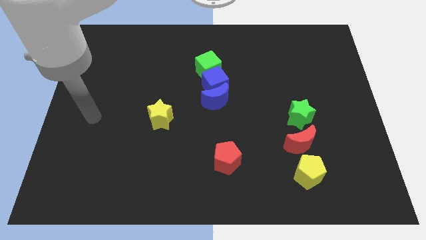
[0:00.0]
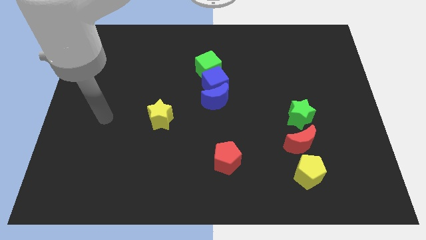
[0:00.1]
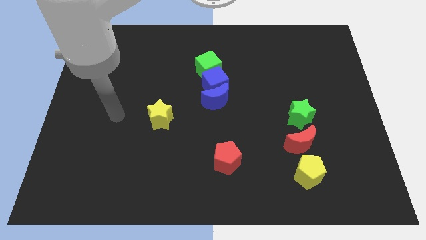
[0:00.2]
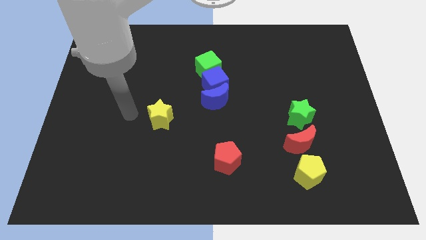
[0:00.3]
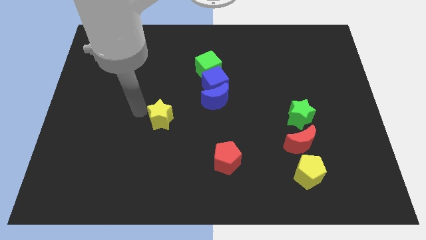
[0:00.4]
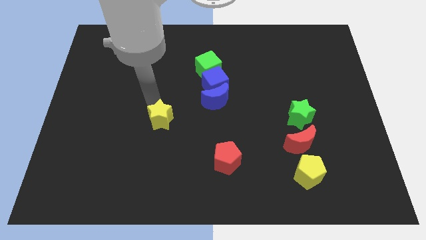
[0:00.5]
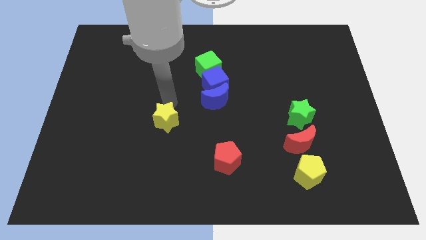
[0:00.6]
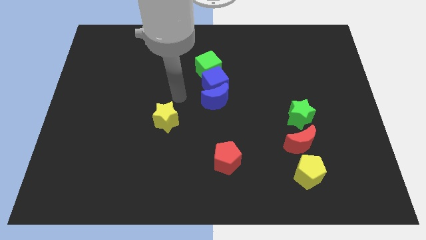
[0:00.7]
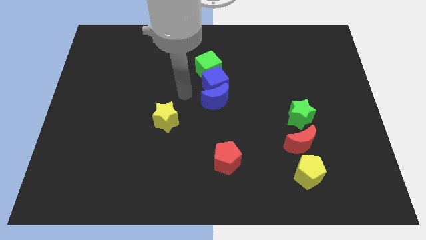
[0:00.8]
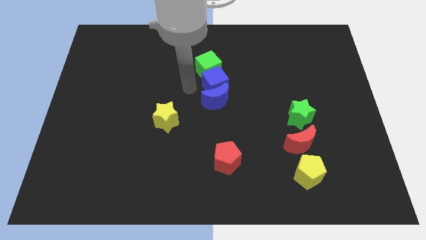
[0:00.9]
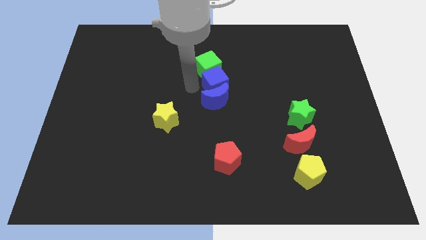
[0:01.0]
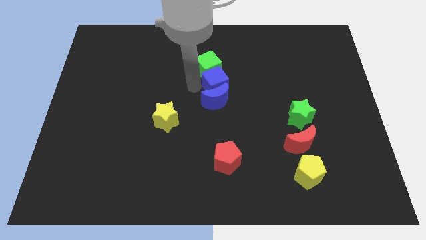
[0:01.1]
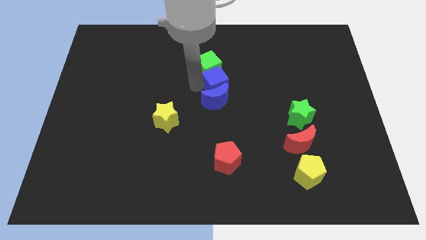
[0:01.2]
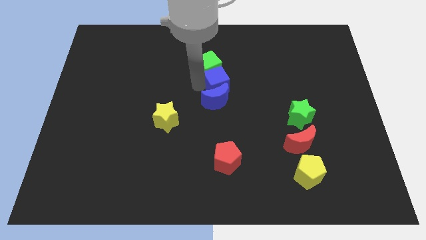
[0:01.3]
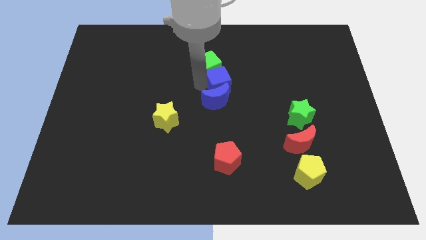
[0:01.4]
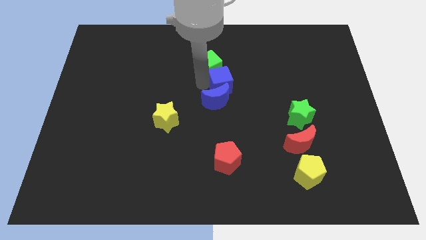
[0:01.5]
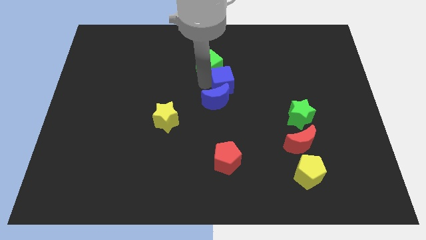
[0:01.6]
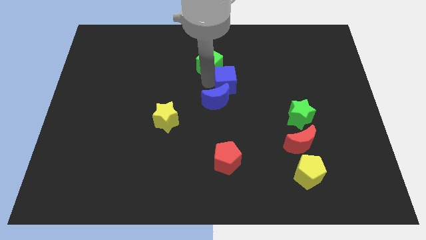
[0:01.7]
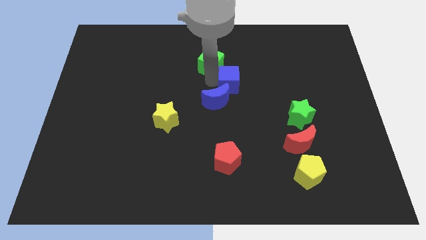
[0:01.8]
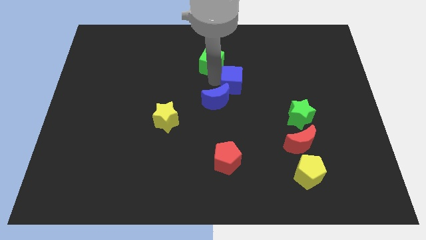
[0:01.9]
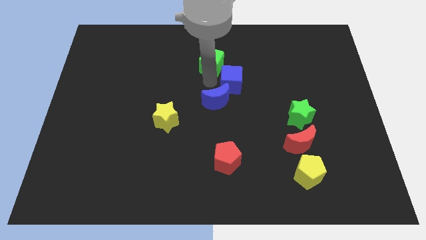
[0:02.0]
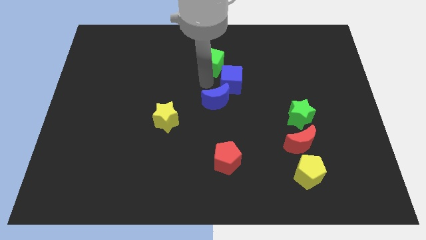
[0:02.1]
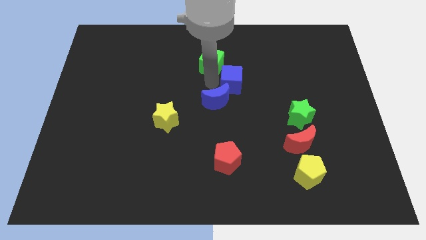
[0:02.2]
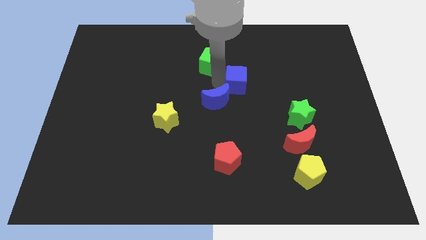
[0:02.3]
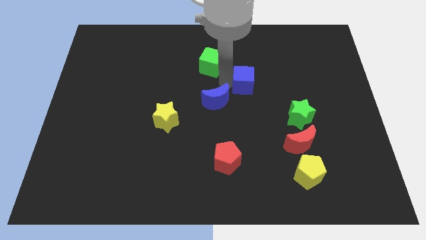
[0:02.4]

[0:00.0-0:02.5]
slightly move the blue cube to the right

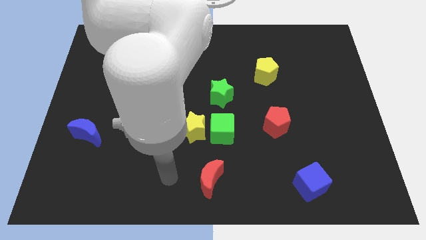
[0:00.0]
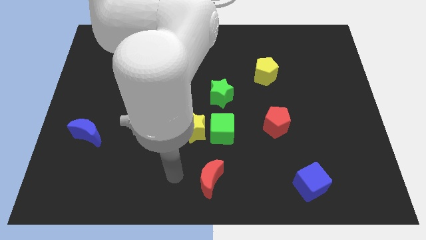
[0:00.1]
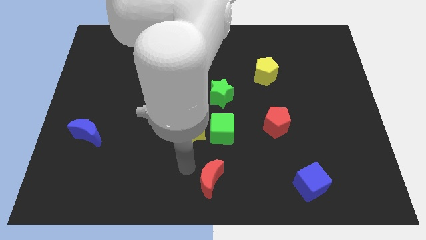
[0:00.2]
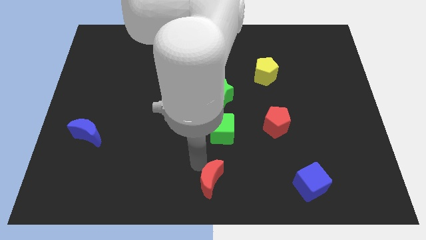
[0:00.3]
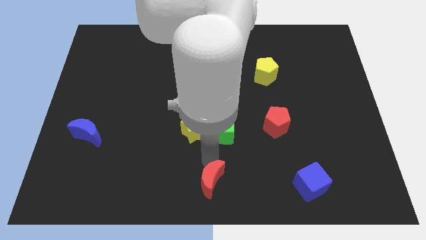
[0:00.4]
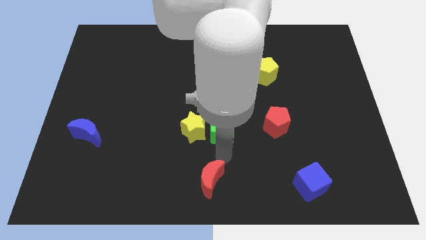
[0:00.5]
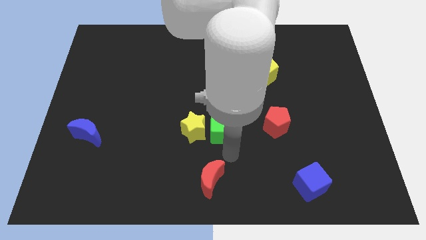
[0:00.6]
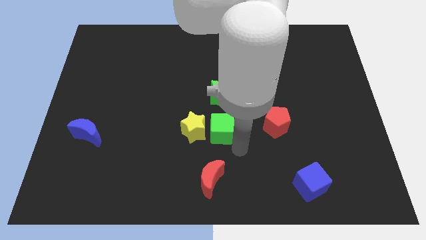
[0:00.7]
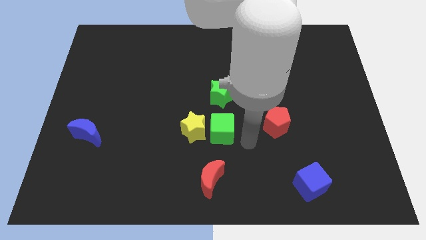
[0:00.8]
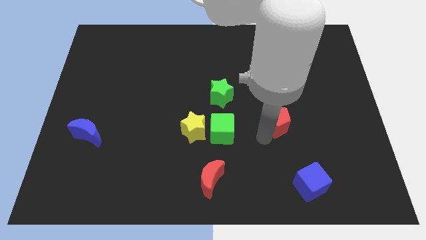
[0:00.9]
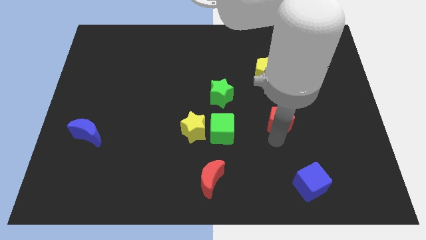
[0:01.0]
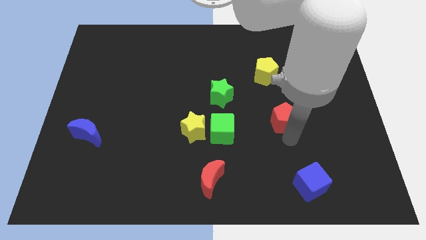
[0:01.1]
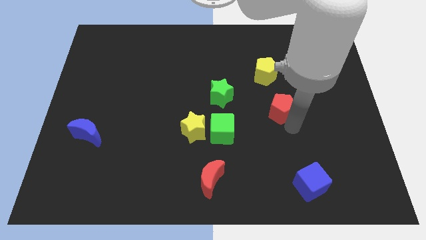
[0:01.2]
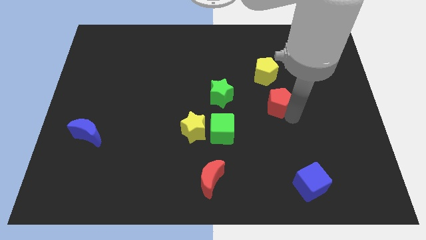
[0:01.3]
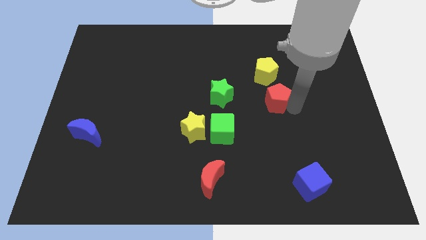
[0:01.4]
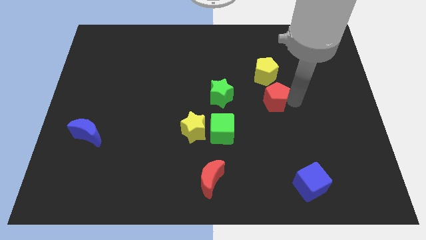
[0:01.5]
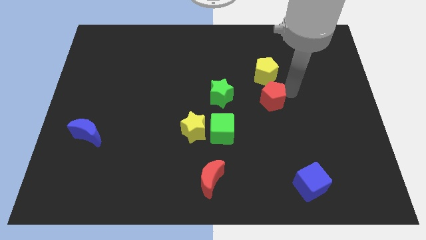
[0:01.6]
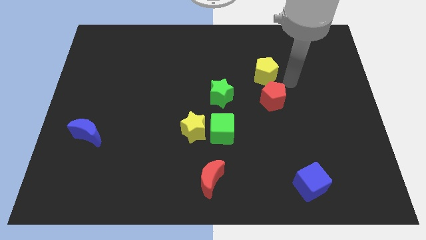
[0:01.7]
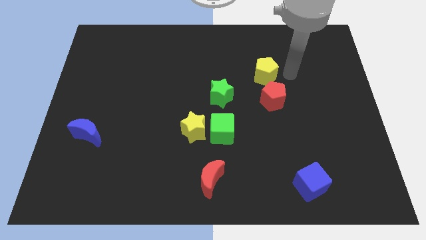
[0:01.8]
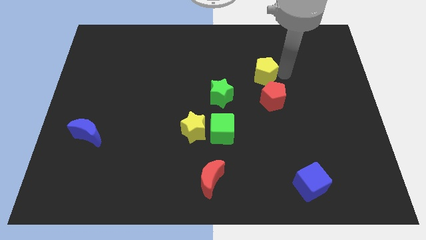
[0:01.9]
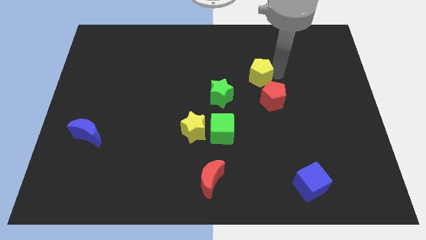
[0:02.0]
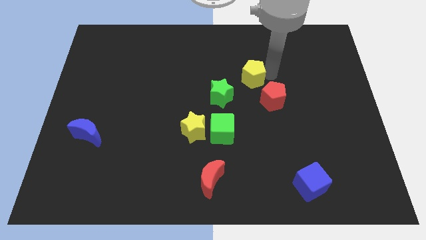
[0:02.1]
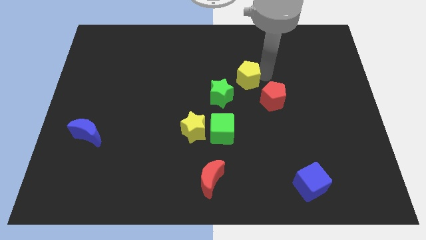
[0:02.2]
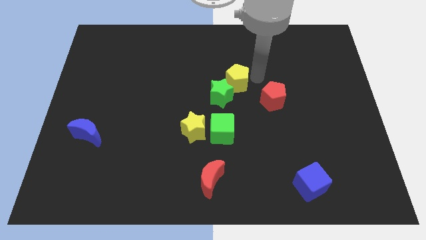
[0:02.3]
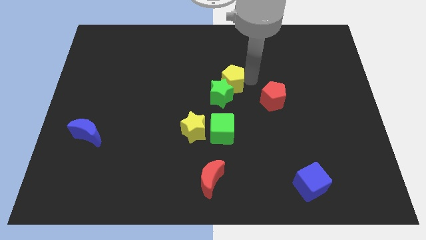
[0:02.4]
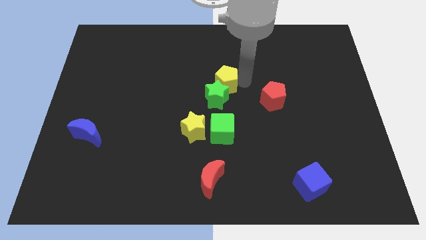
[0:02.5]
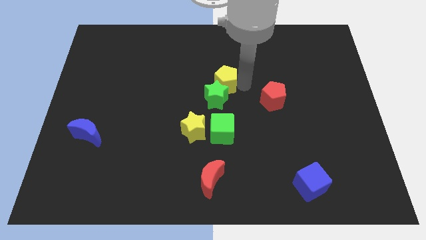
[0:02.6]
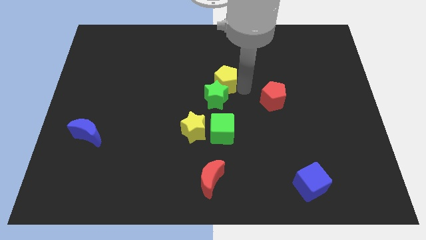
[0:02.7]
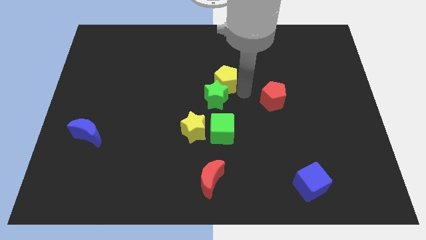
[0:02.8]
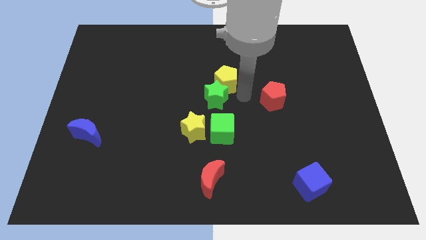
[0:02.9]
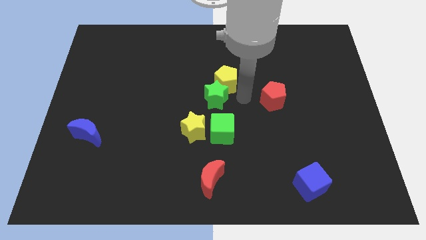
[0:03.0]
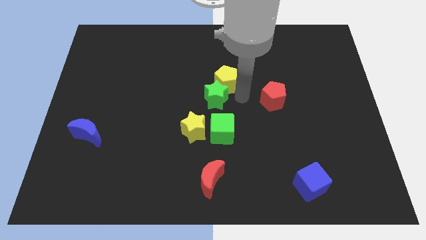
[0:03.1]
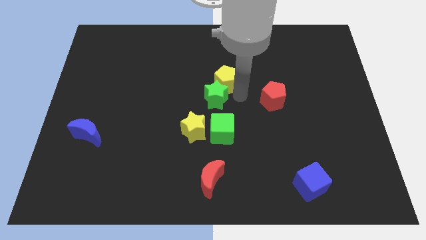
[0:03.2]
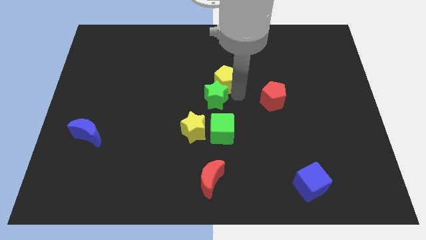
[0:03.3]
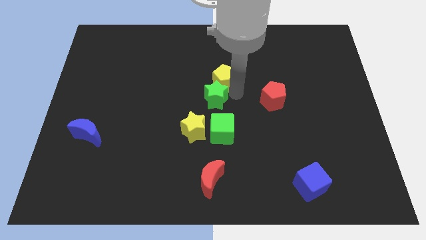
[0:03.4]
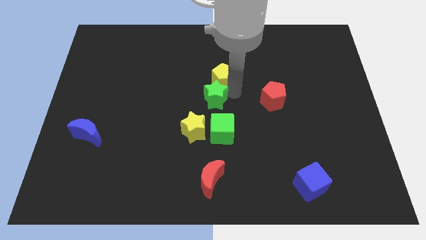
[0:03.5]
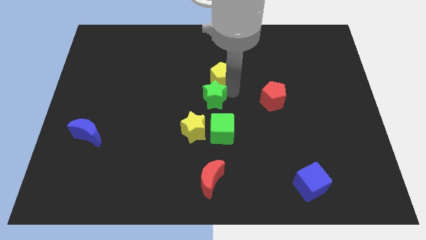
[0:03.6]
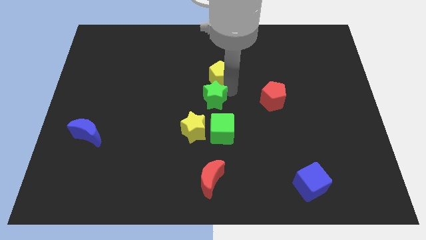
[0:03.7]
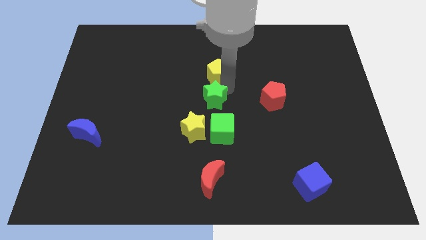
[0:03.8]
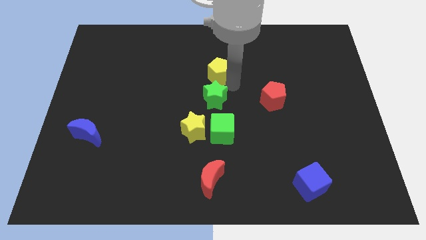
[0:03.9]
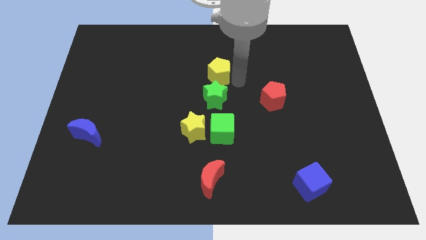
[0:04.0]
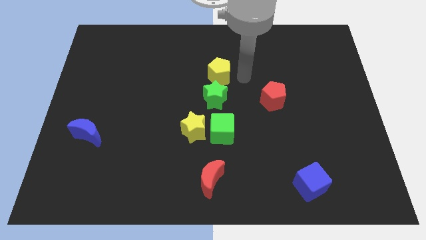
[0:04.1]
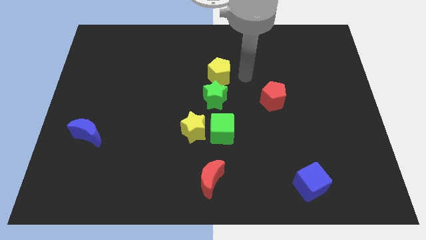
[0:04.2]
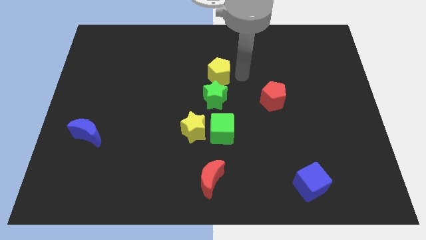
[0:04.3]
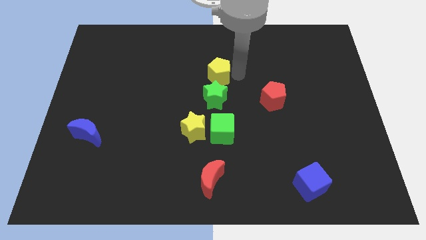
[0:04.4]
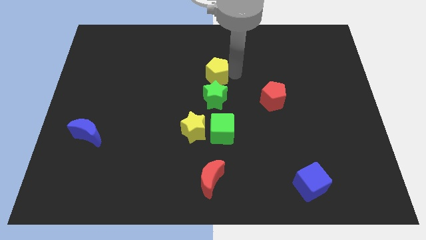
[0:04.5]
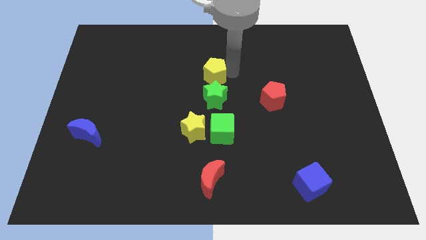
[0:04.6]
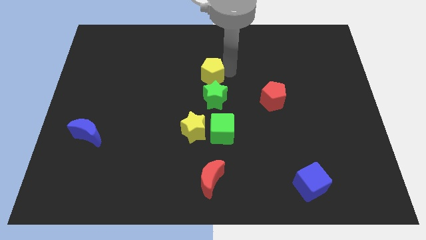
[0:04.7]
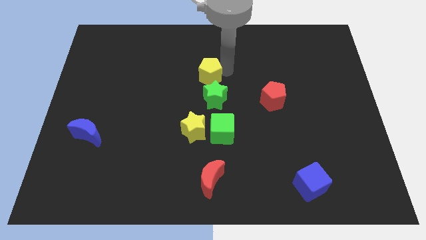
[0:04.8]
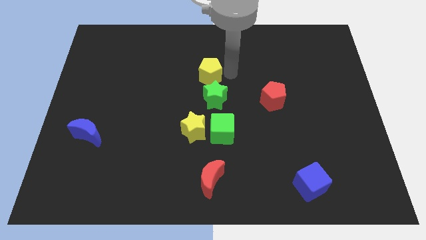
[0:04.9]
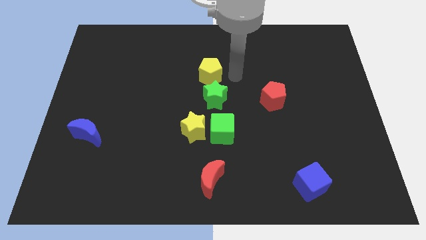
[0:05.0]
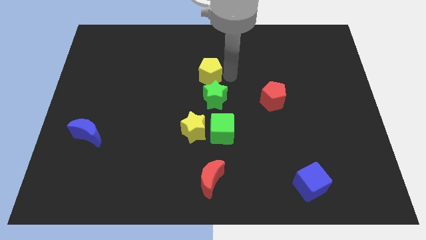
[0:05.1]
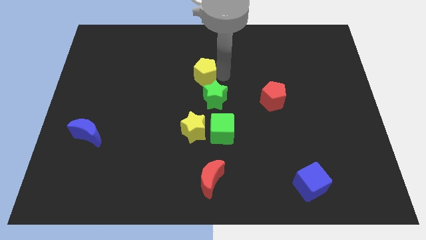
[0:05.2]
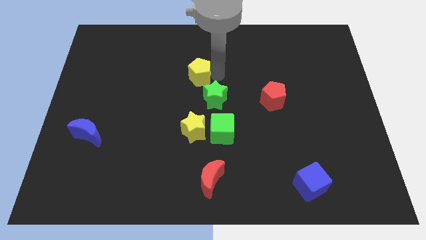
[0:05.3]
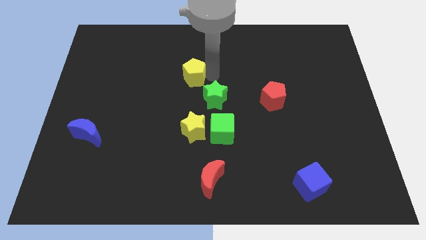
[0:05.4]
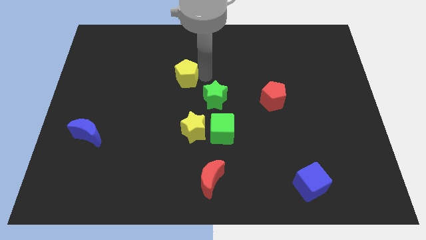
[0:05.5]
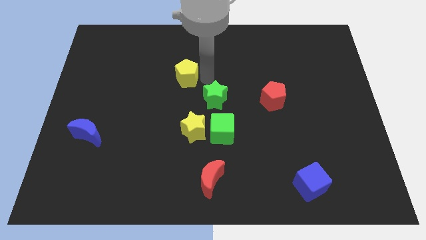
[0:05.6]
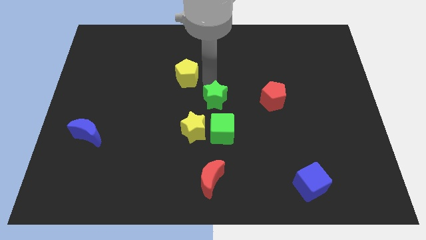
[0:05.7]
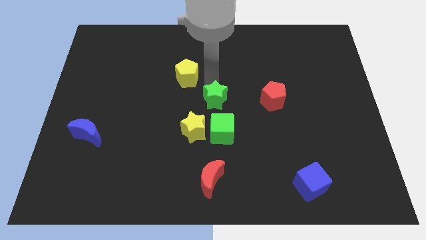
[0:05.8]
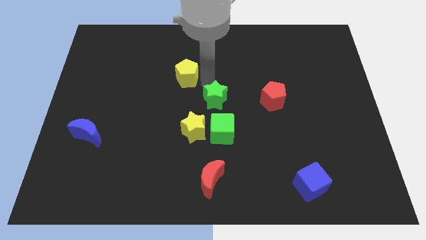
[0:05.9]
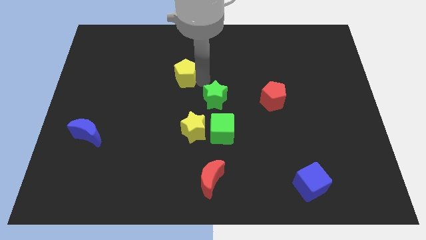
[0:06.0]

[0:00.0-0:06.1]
push the yellow pentagon left
